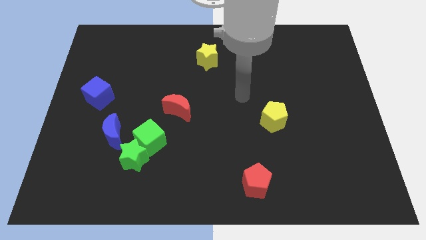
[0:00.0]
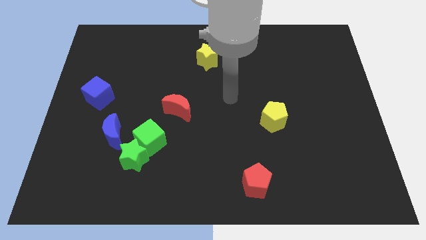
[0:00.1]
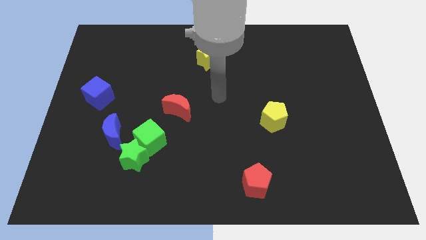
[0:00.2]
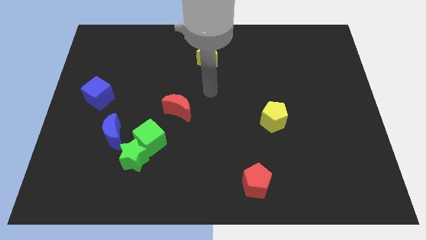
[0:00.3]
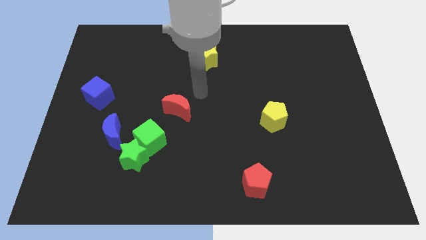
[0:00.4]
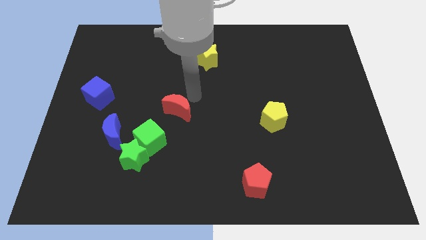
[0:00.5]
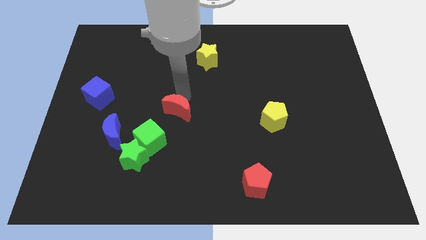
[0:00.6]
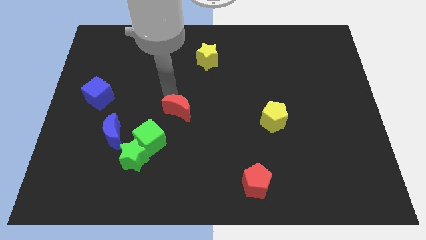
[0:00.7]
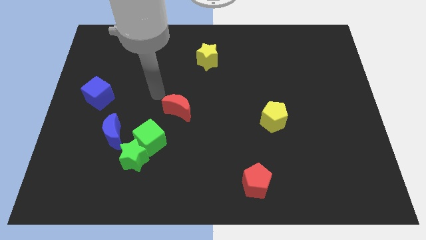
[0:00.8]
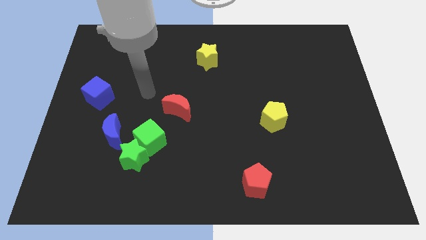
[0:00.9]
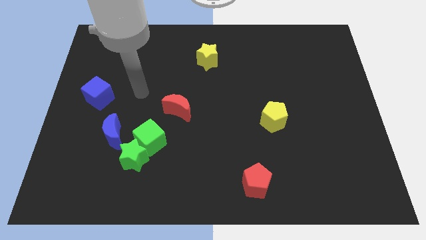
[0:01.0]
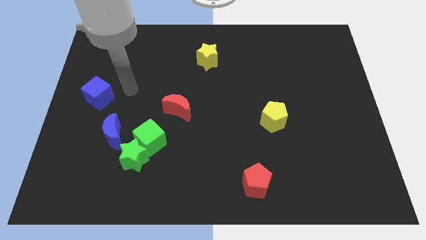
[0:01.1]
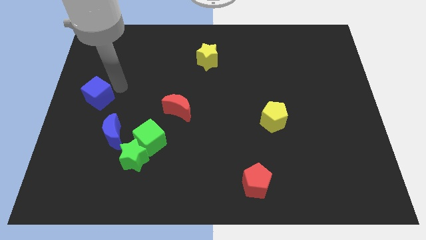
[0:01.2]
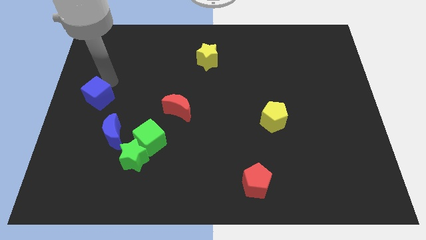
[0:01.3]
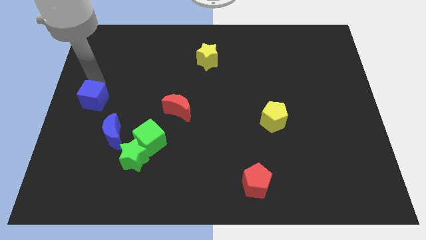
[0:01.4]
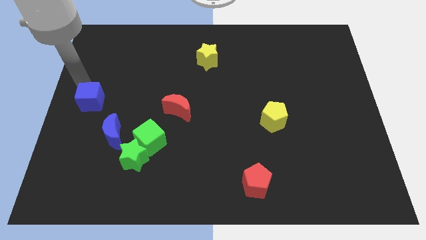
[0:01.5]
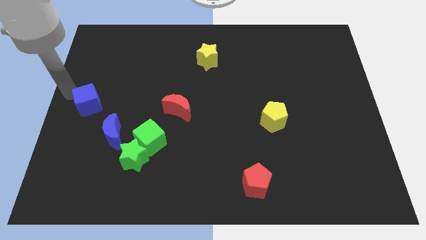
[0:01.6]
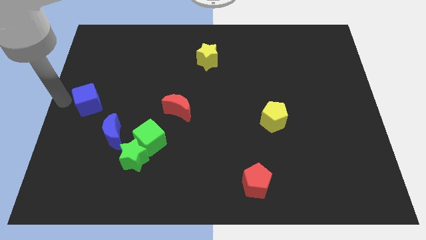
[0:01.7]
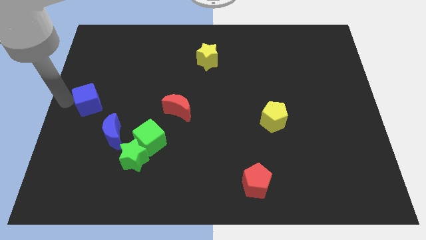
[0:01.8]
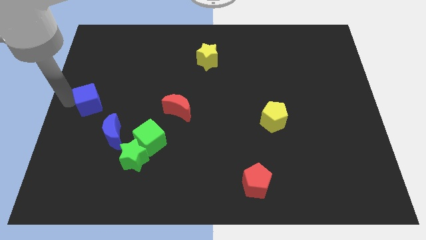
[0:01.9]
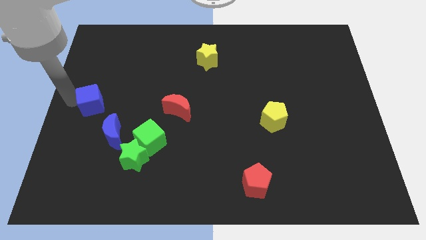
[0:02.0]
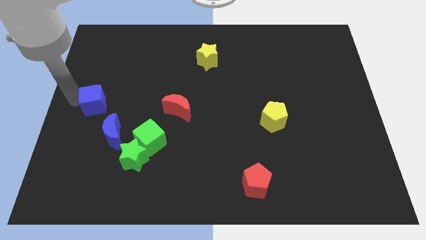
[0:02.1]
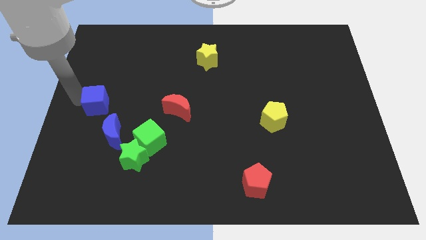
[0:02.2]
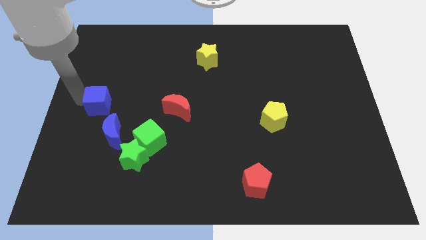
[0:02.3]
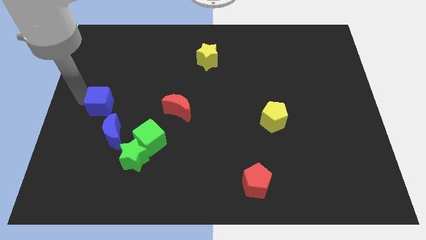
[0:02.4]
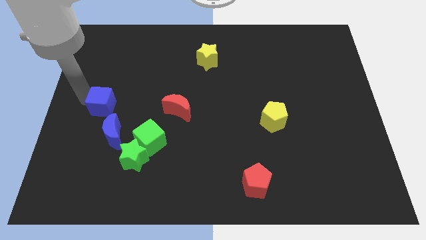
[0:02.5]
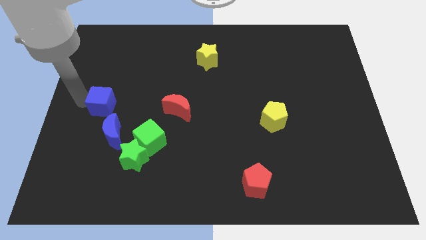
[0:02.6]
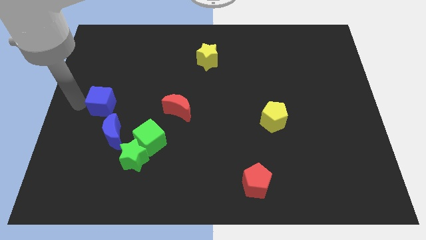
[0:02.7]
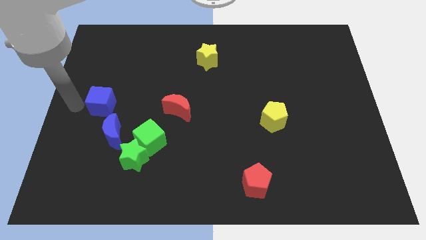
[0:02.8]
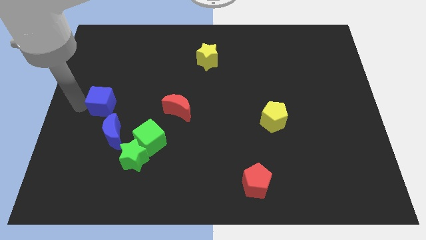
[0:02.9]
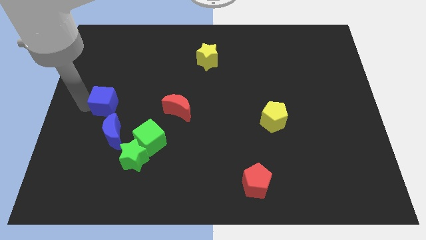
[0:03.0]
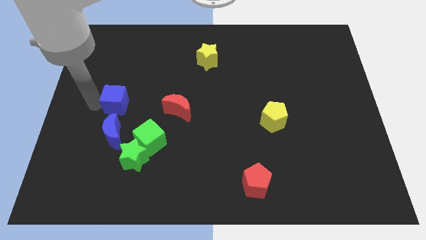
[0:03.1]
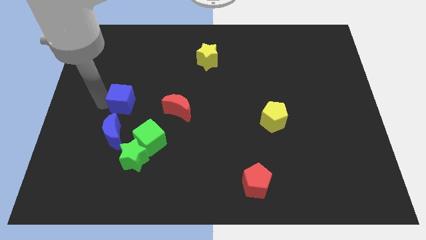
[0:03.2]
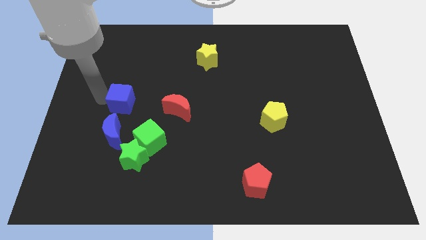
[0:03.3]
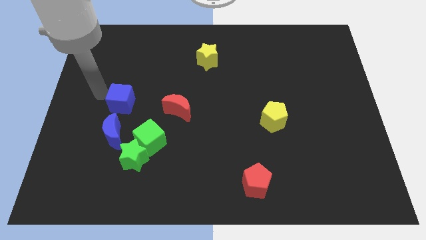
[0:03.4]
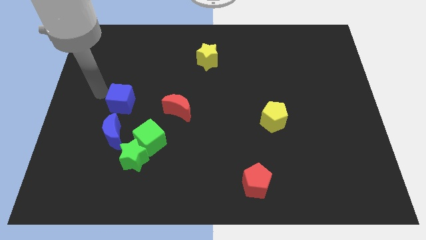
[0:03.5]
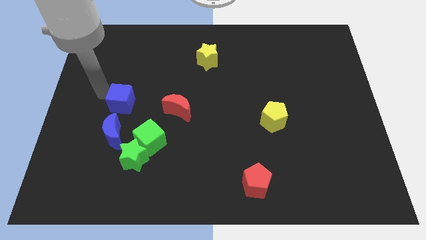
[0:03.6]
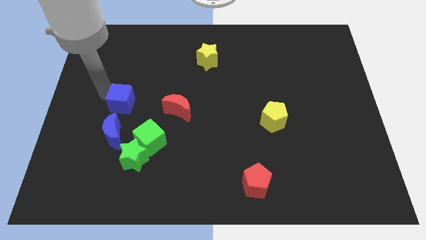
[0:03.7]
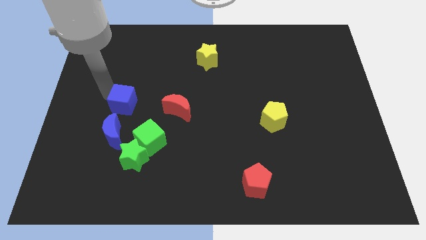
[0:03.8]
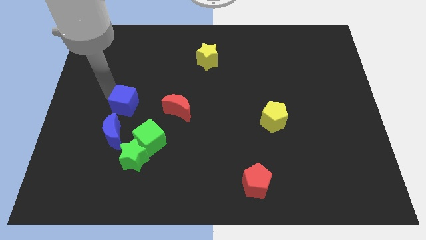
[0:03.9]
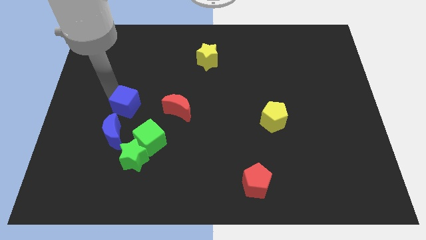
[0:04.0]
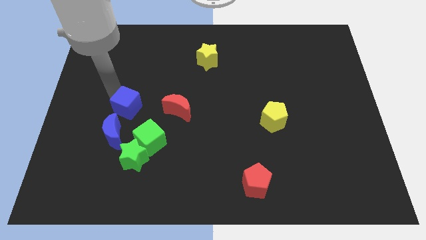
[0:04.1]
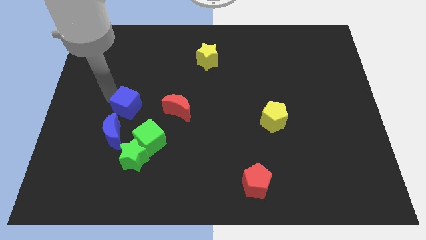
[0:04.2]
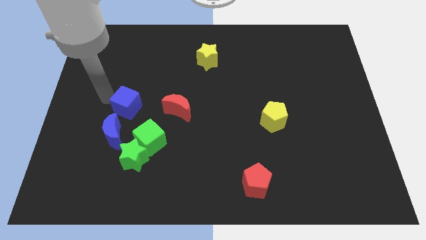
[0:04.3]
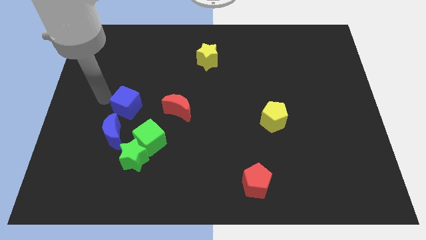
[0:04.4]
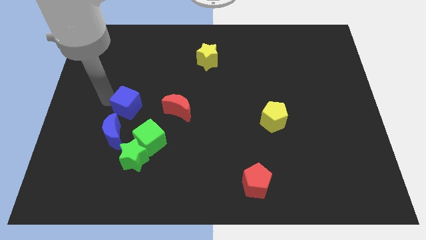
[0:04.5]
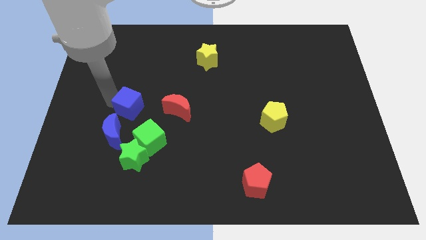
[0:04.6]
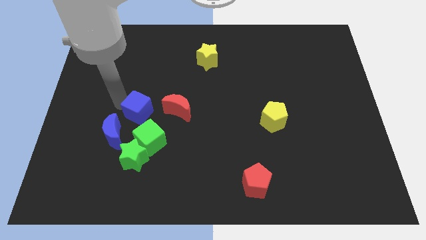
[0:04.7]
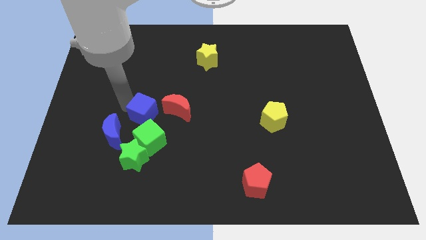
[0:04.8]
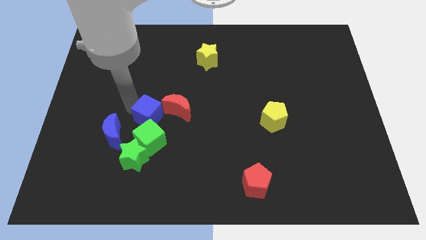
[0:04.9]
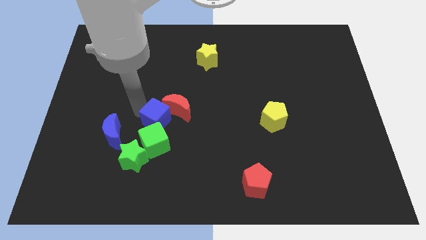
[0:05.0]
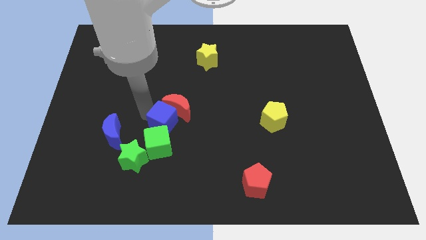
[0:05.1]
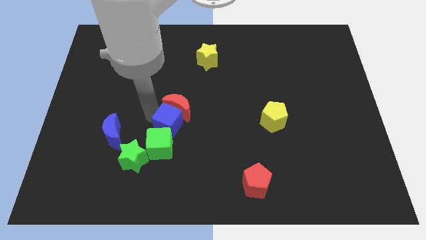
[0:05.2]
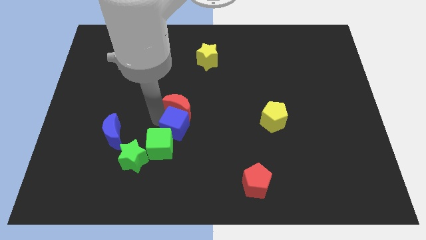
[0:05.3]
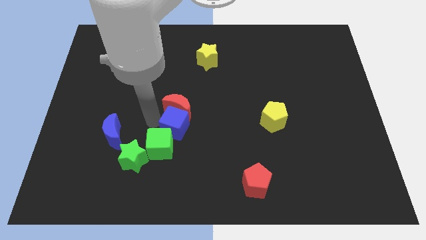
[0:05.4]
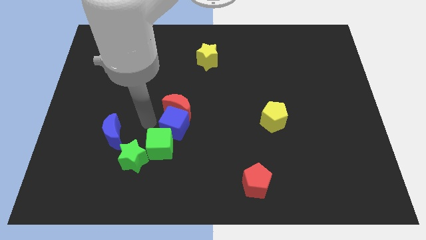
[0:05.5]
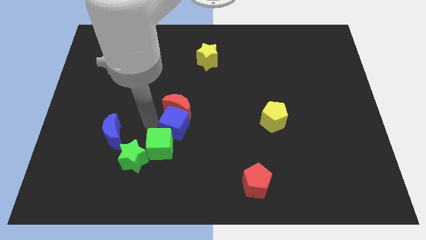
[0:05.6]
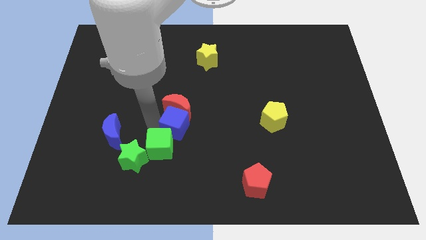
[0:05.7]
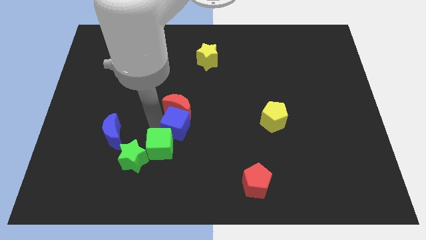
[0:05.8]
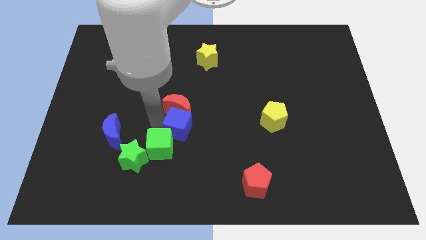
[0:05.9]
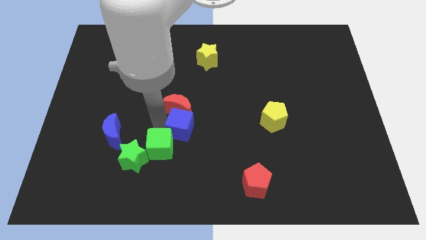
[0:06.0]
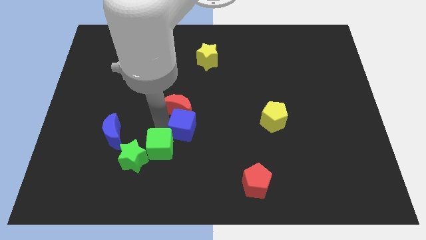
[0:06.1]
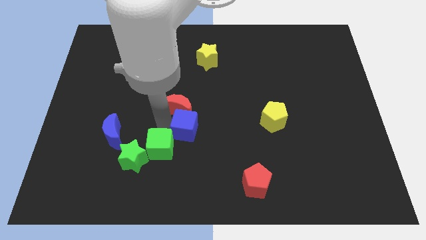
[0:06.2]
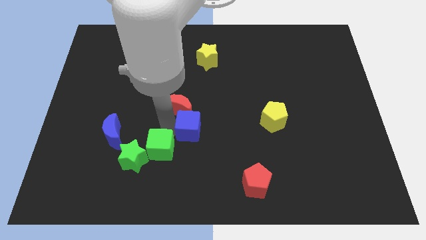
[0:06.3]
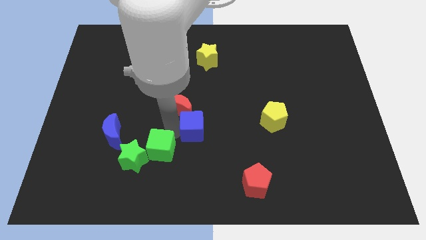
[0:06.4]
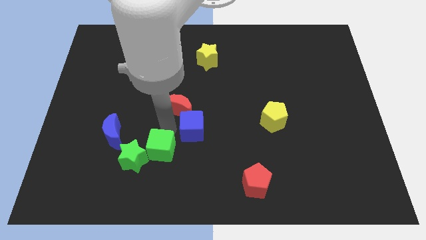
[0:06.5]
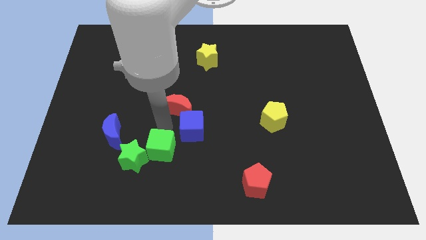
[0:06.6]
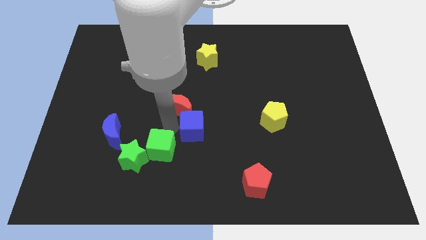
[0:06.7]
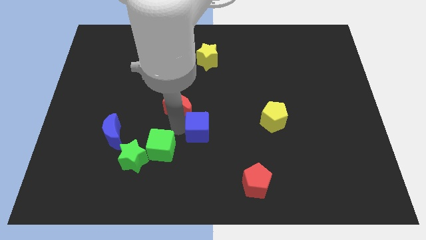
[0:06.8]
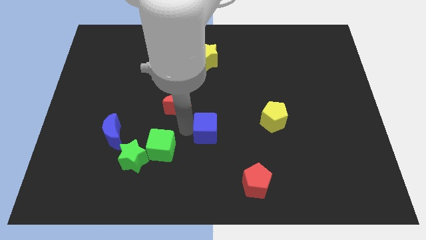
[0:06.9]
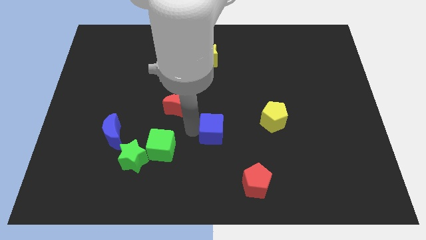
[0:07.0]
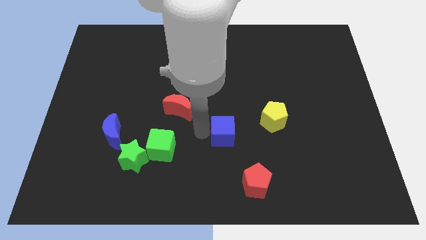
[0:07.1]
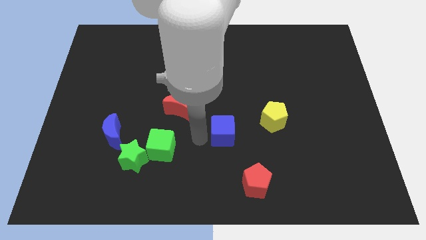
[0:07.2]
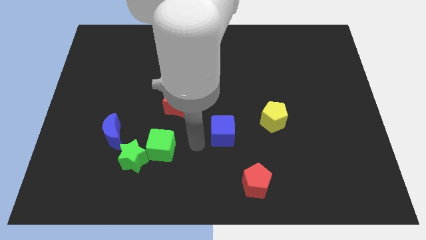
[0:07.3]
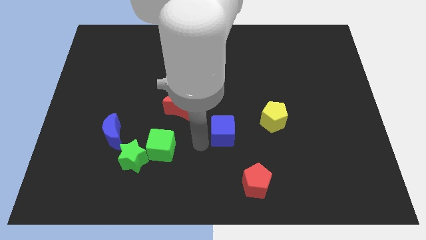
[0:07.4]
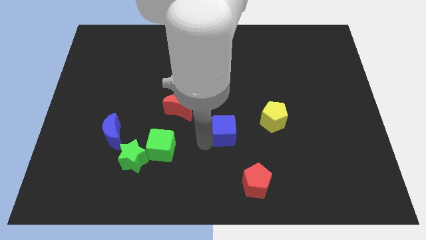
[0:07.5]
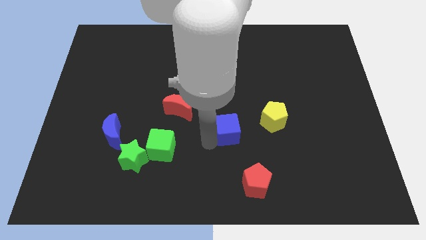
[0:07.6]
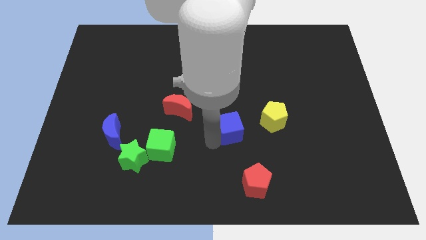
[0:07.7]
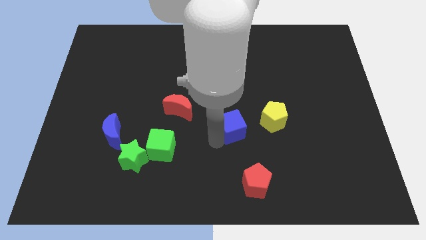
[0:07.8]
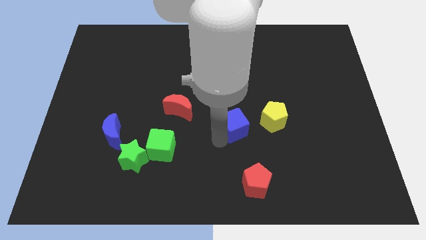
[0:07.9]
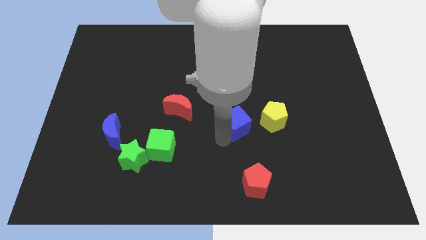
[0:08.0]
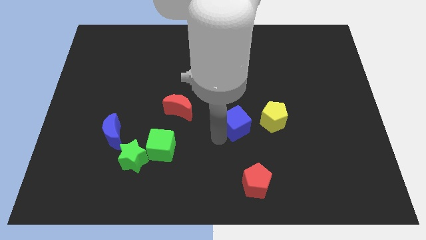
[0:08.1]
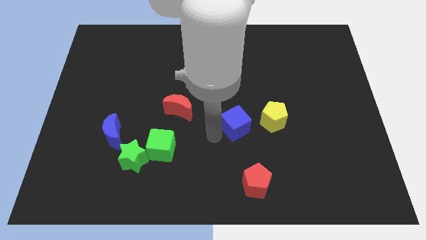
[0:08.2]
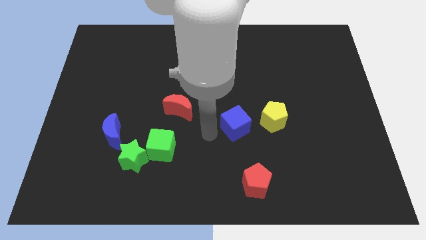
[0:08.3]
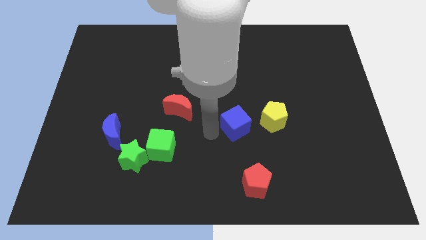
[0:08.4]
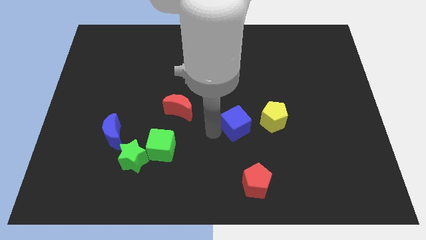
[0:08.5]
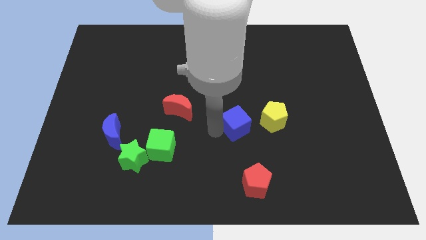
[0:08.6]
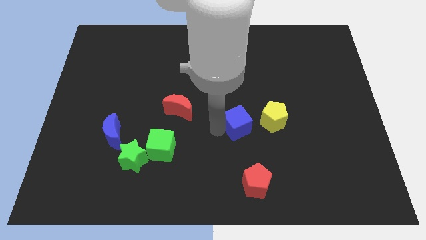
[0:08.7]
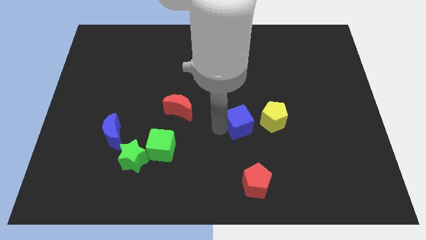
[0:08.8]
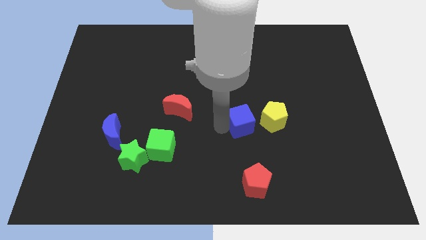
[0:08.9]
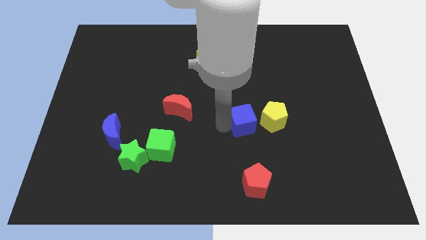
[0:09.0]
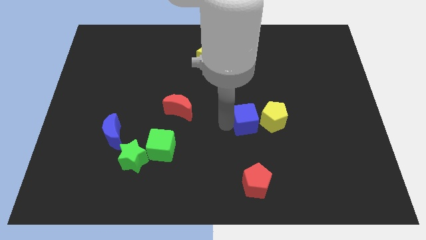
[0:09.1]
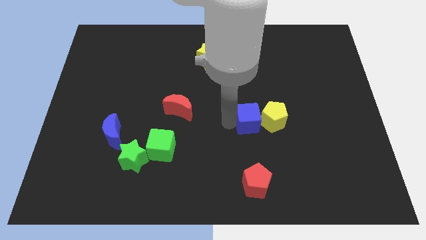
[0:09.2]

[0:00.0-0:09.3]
put the blue cube close to the yellow pentagon
